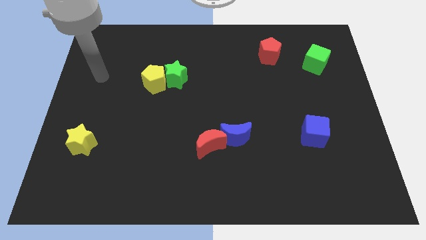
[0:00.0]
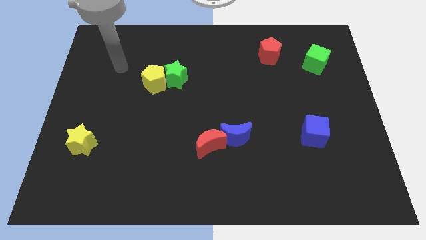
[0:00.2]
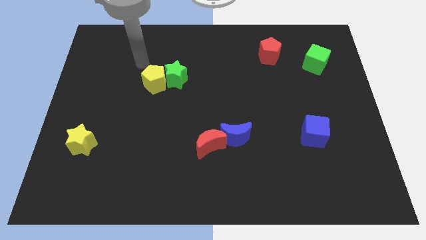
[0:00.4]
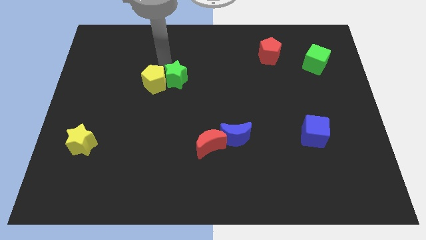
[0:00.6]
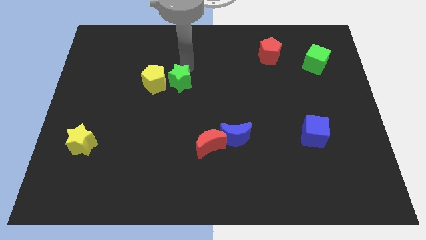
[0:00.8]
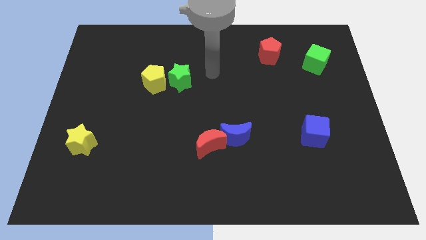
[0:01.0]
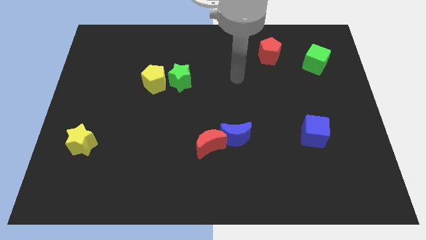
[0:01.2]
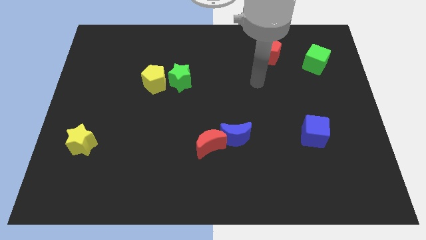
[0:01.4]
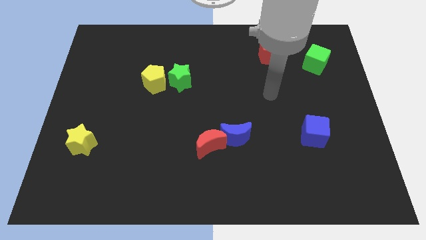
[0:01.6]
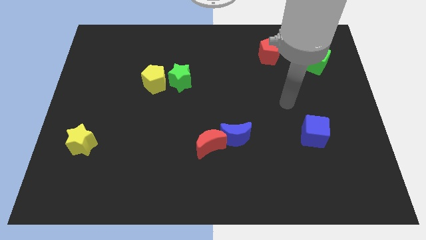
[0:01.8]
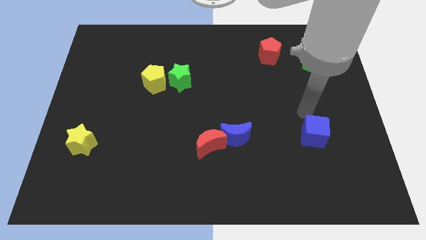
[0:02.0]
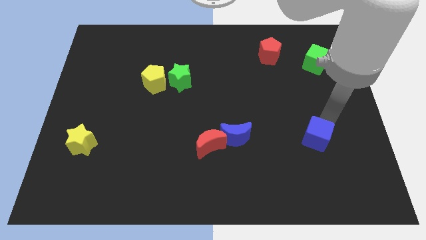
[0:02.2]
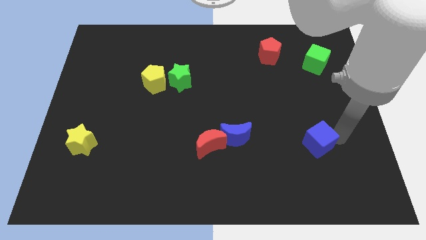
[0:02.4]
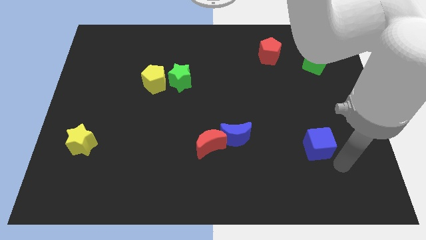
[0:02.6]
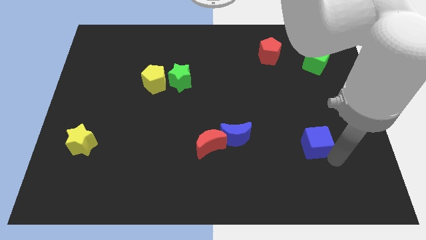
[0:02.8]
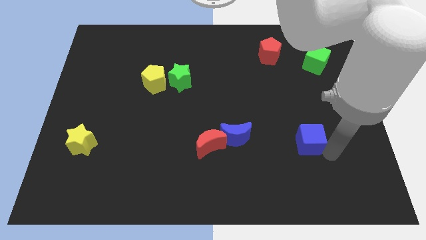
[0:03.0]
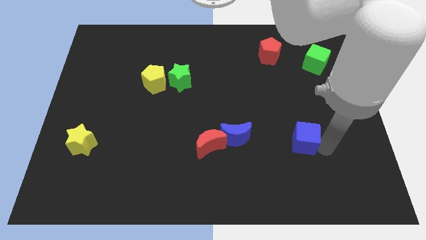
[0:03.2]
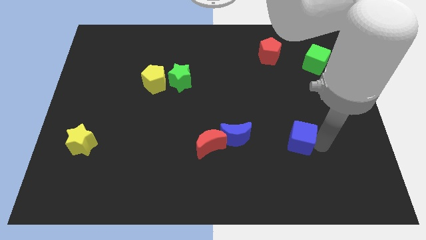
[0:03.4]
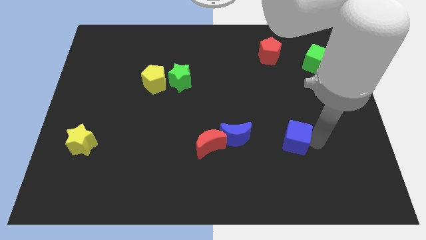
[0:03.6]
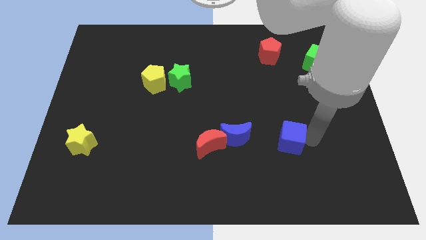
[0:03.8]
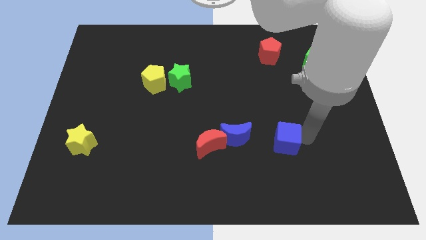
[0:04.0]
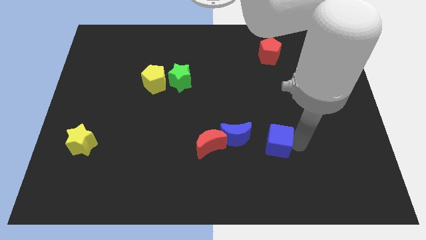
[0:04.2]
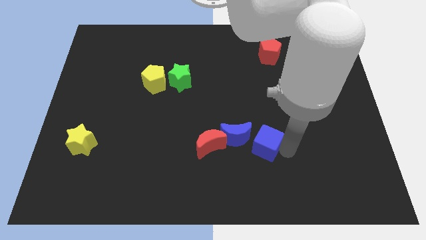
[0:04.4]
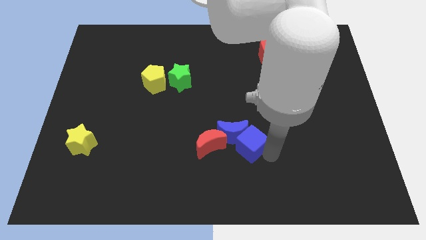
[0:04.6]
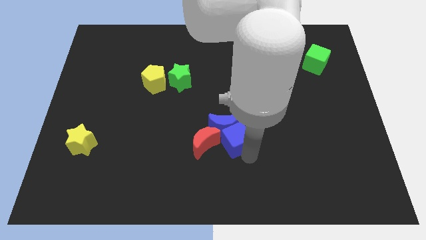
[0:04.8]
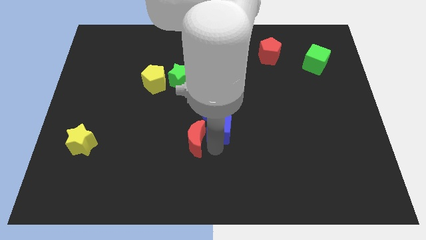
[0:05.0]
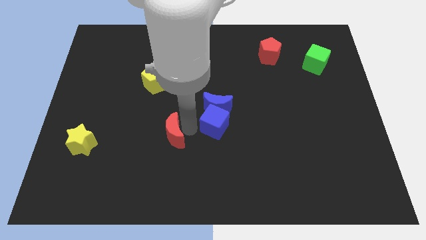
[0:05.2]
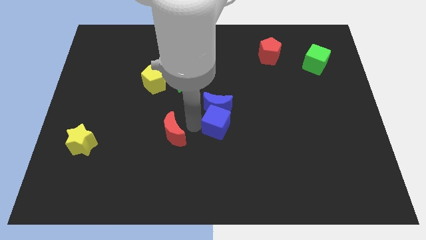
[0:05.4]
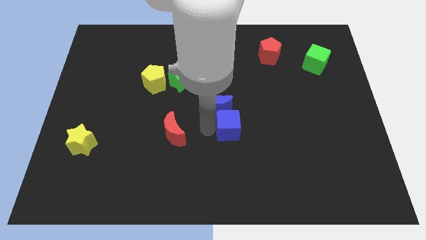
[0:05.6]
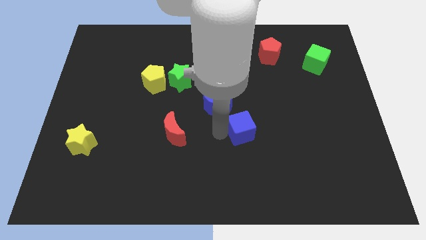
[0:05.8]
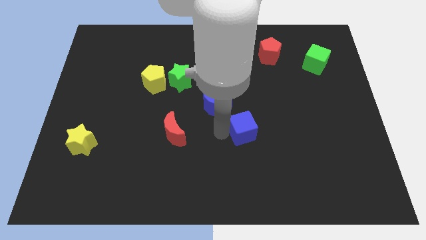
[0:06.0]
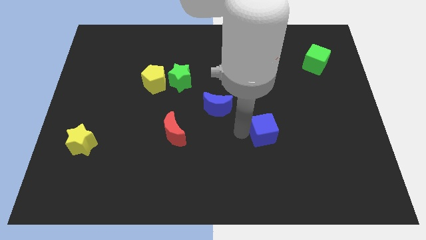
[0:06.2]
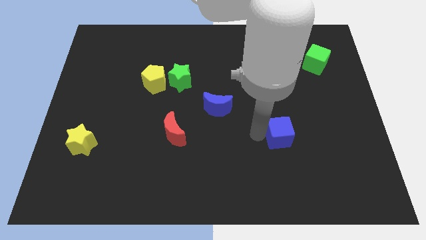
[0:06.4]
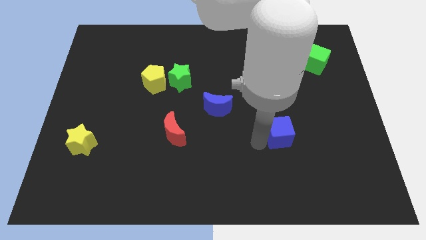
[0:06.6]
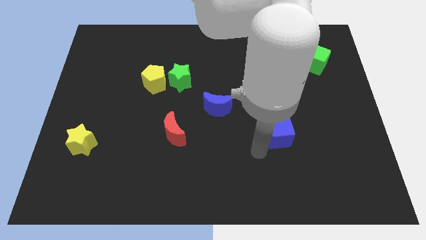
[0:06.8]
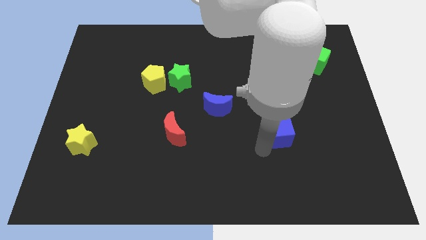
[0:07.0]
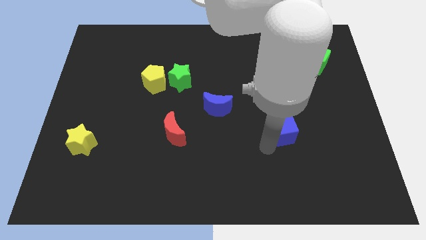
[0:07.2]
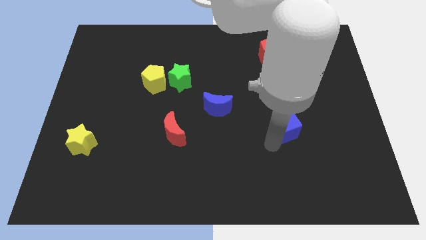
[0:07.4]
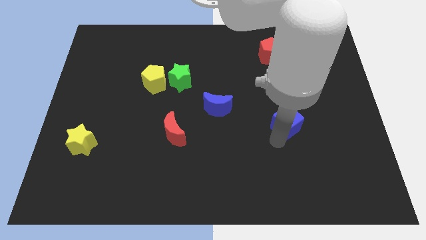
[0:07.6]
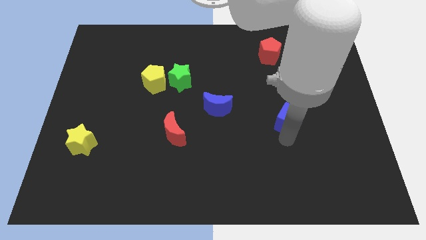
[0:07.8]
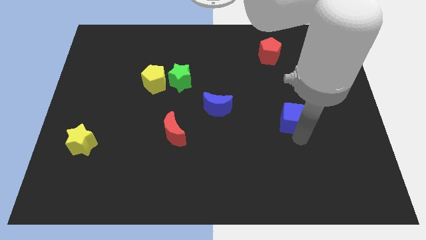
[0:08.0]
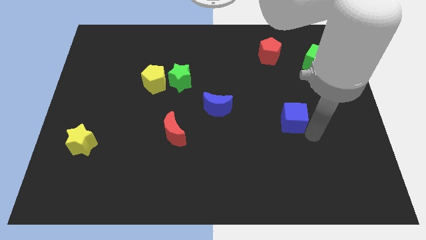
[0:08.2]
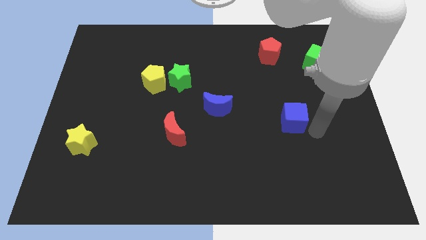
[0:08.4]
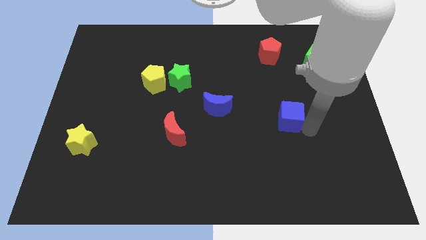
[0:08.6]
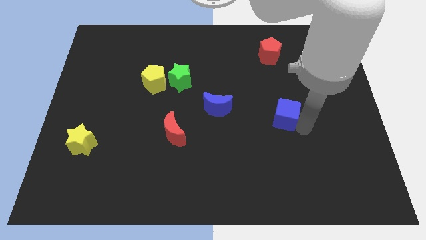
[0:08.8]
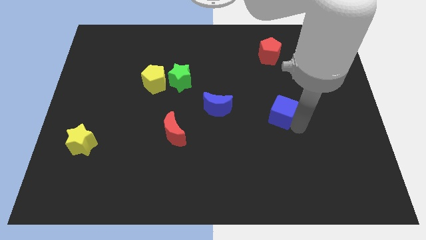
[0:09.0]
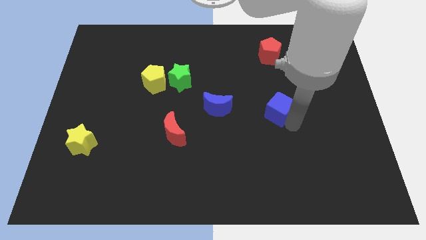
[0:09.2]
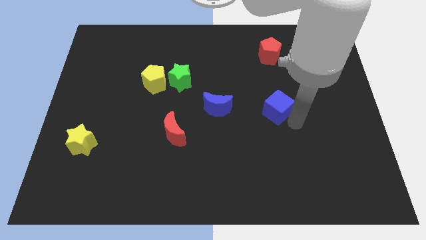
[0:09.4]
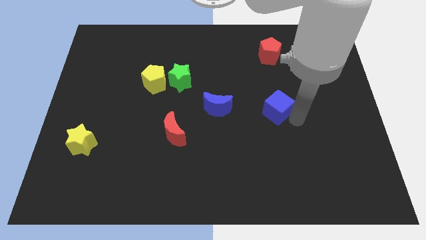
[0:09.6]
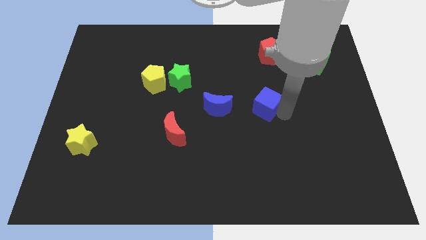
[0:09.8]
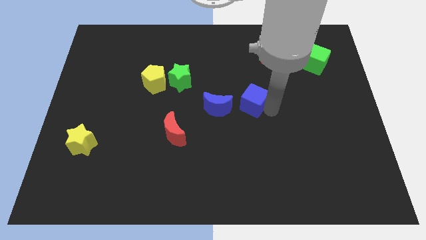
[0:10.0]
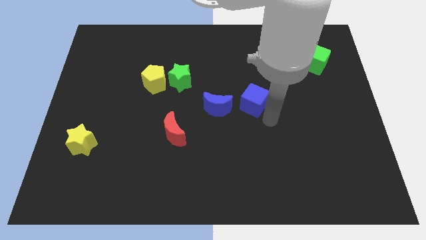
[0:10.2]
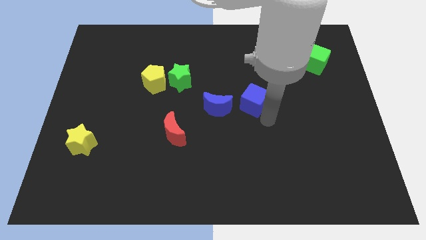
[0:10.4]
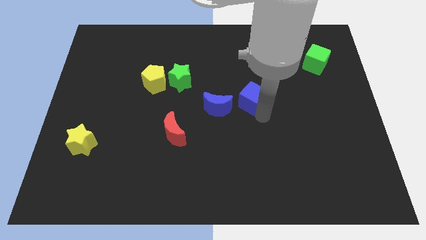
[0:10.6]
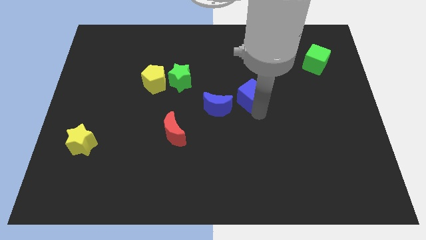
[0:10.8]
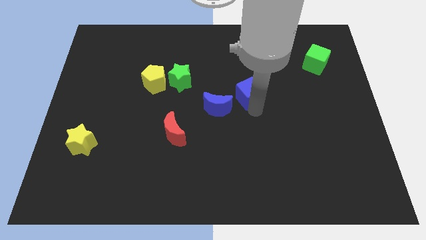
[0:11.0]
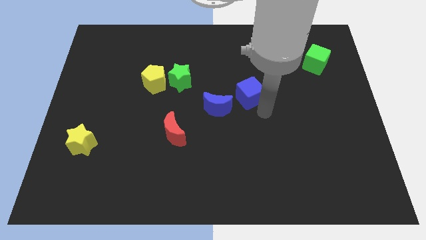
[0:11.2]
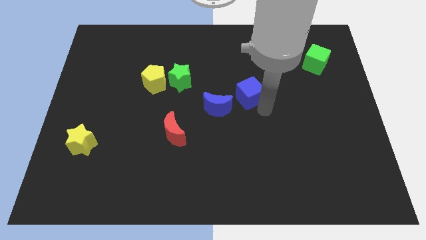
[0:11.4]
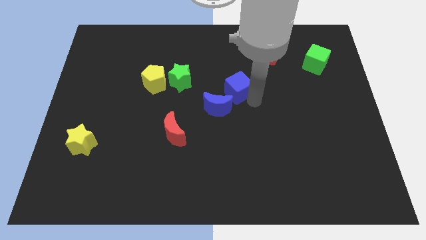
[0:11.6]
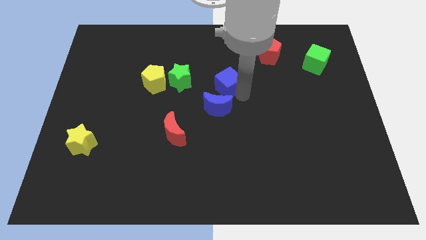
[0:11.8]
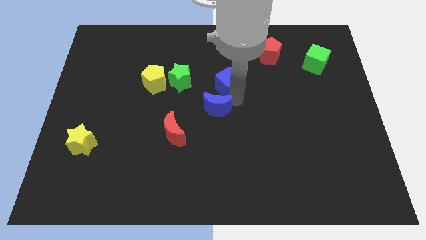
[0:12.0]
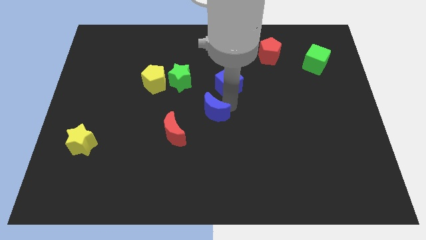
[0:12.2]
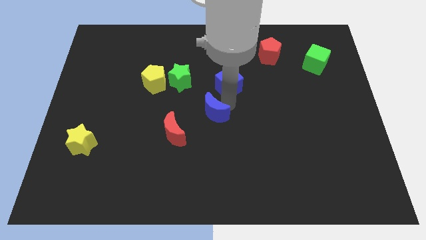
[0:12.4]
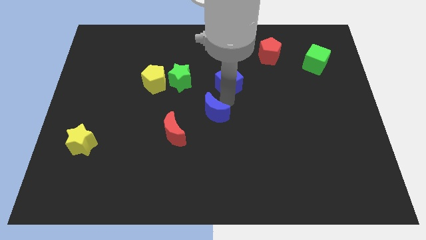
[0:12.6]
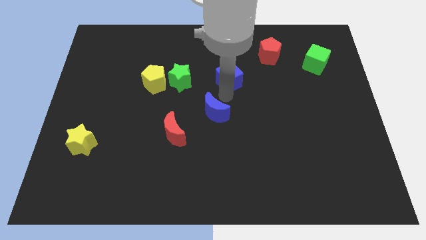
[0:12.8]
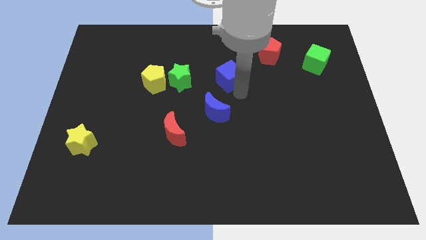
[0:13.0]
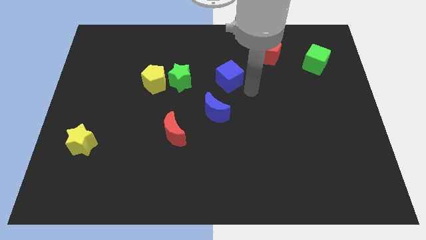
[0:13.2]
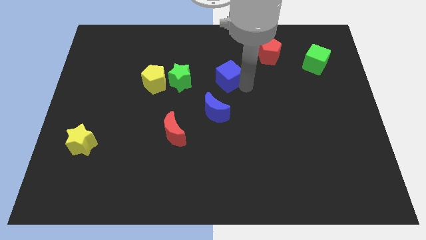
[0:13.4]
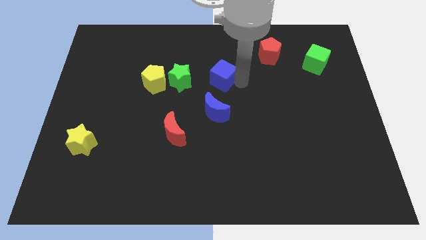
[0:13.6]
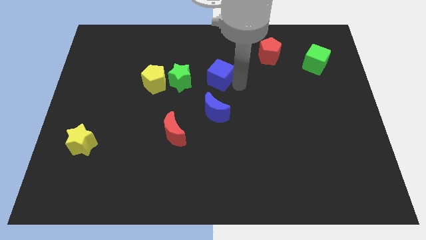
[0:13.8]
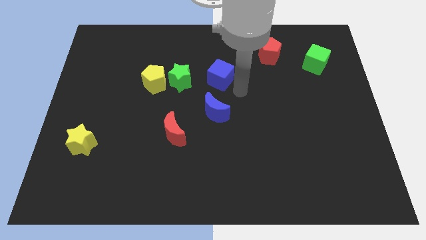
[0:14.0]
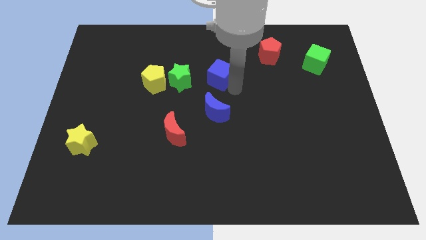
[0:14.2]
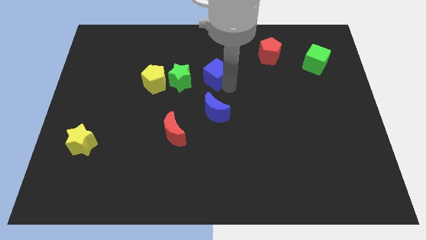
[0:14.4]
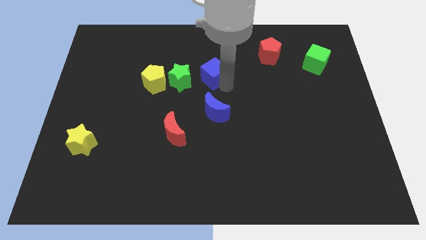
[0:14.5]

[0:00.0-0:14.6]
move the blue cube diagonally up and to the right of the green star
